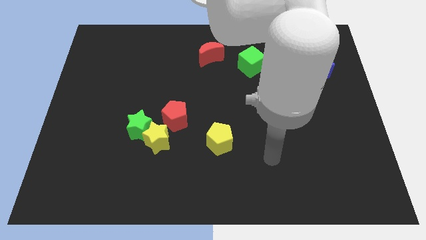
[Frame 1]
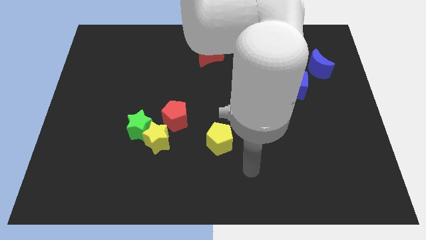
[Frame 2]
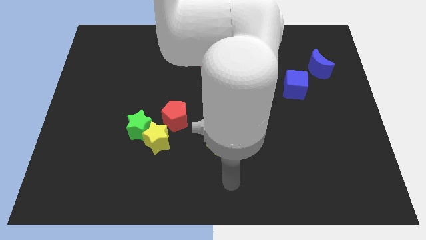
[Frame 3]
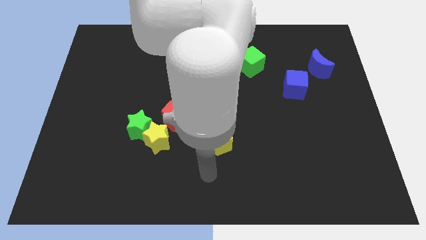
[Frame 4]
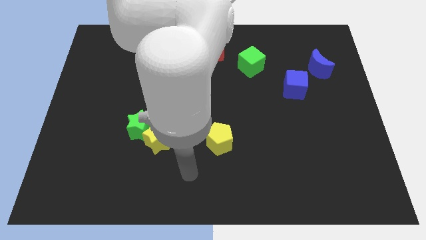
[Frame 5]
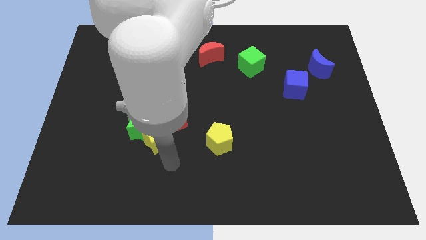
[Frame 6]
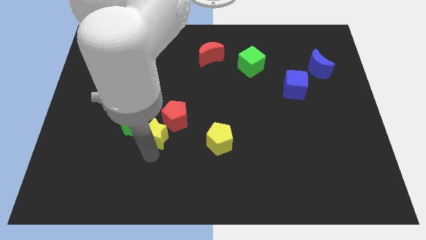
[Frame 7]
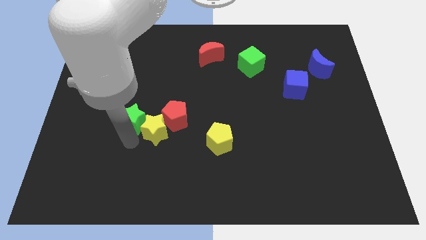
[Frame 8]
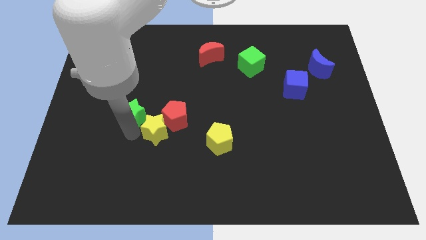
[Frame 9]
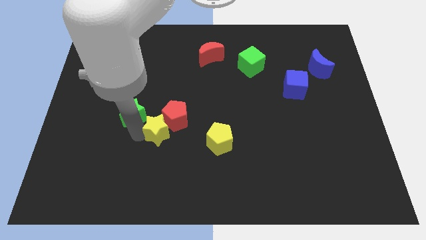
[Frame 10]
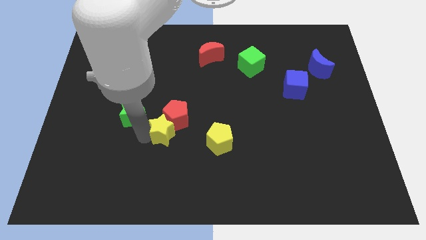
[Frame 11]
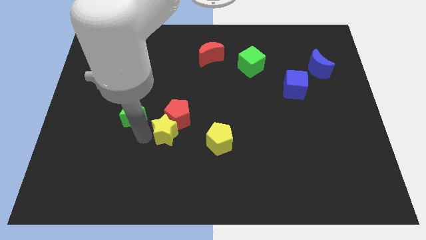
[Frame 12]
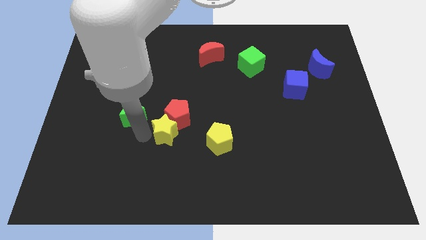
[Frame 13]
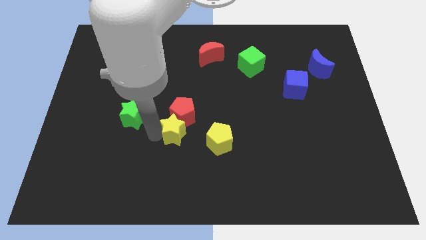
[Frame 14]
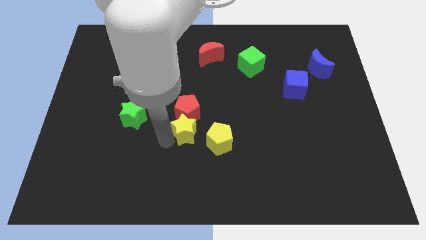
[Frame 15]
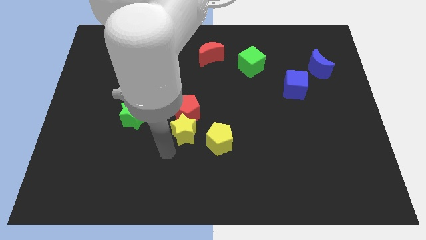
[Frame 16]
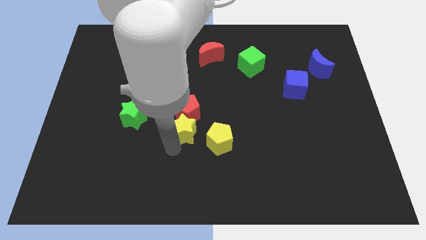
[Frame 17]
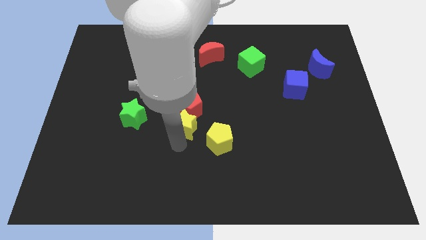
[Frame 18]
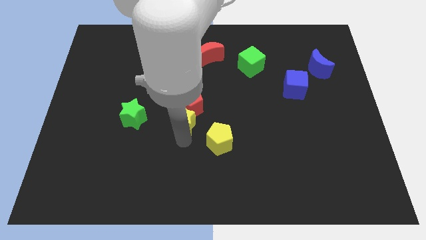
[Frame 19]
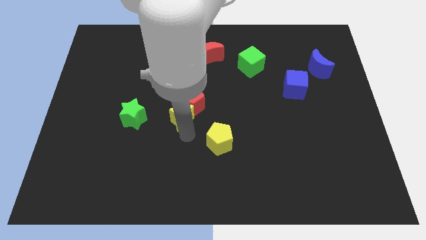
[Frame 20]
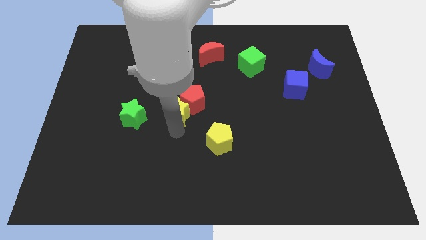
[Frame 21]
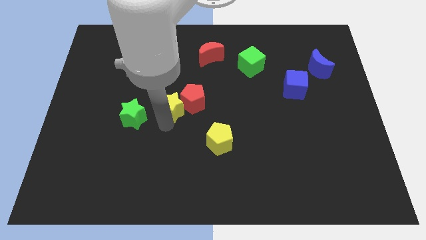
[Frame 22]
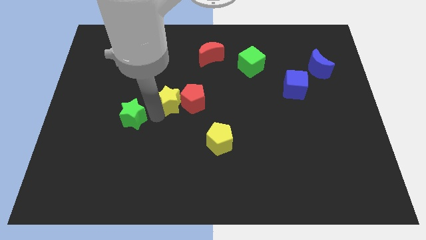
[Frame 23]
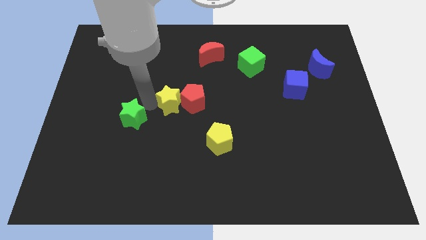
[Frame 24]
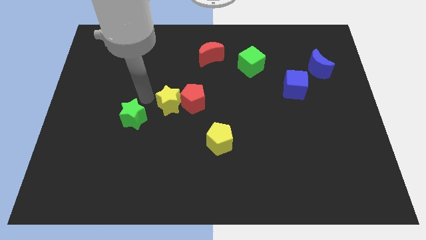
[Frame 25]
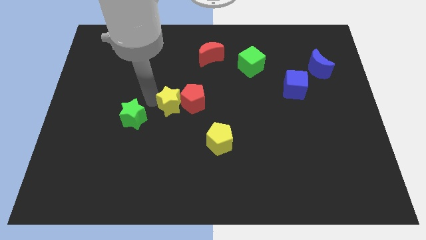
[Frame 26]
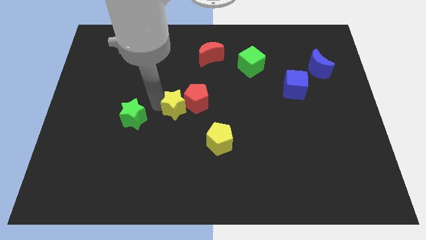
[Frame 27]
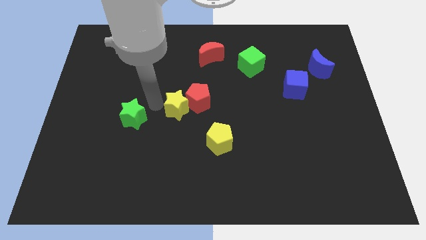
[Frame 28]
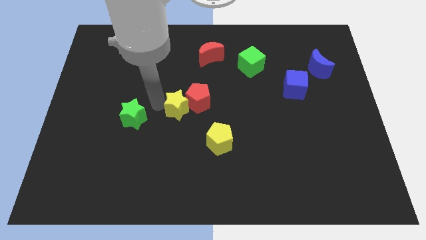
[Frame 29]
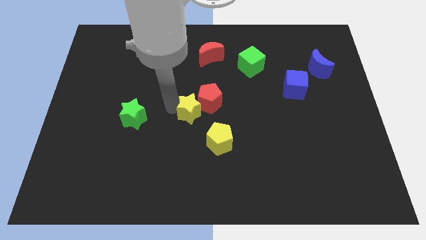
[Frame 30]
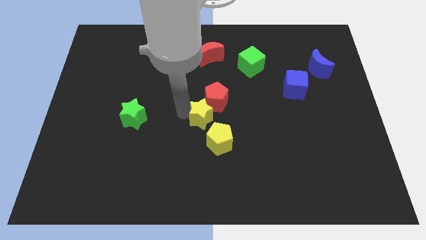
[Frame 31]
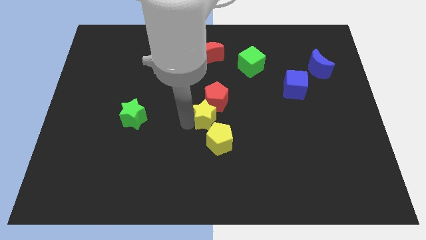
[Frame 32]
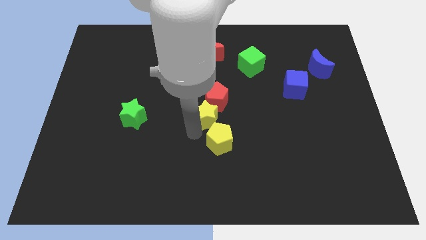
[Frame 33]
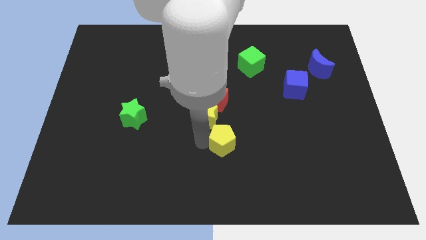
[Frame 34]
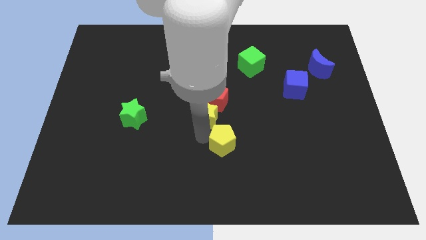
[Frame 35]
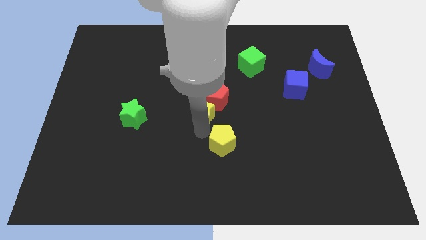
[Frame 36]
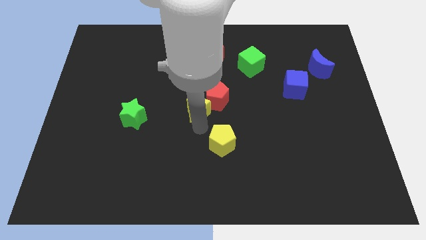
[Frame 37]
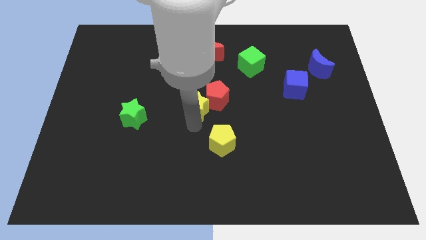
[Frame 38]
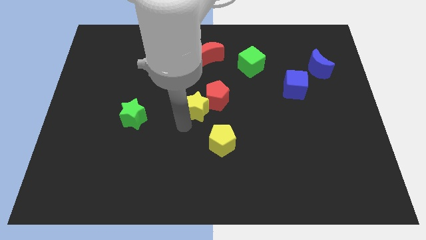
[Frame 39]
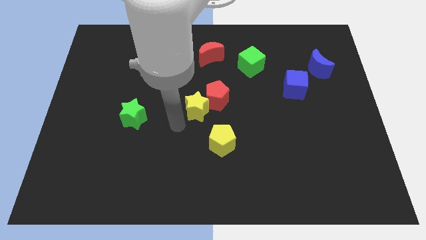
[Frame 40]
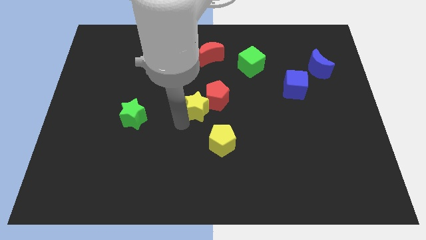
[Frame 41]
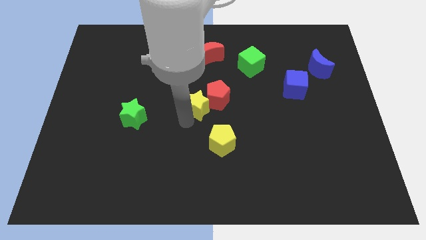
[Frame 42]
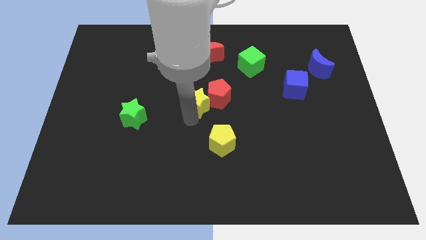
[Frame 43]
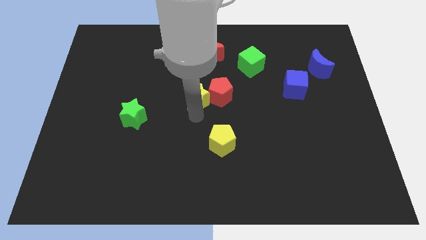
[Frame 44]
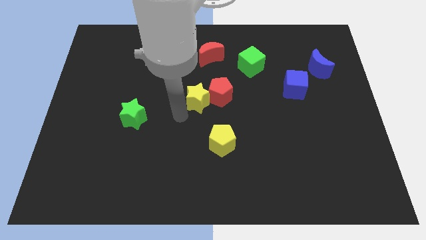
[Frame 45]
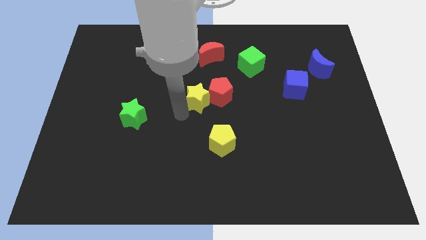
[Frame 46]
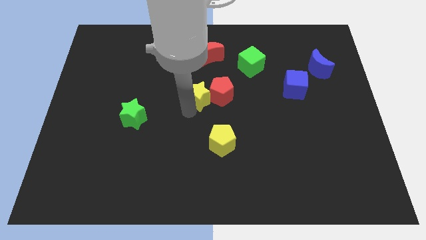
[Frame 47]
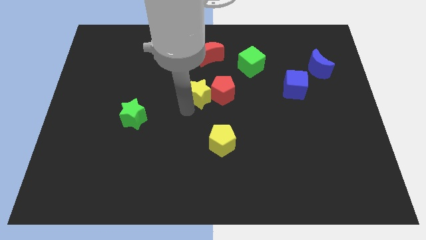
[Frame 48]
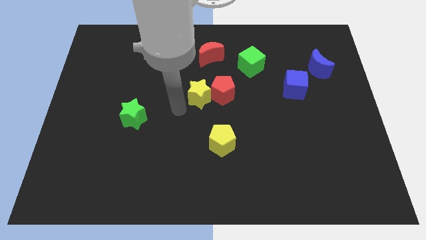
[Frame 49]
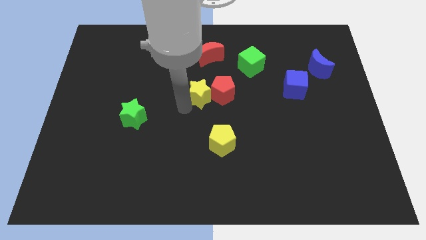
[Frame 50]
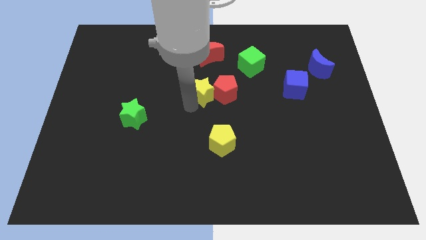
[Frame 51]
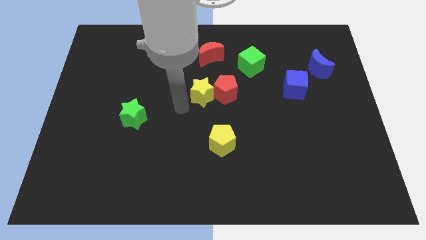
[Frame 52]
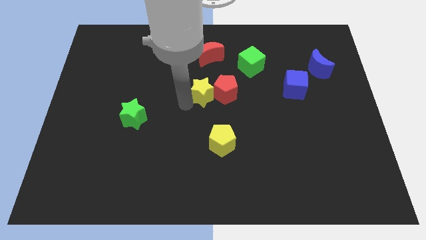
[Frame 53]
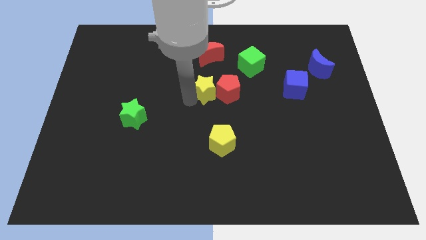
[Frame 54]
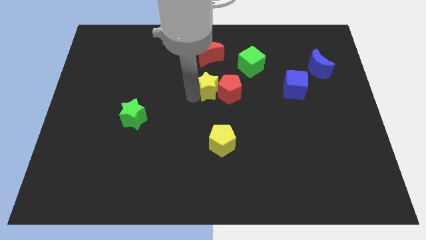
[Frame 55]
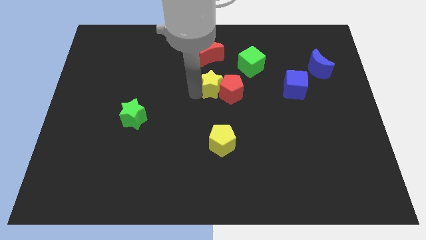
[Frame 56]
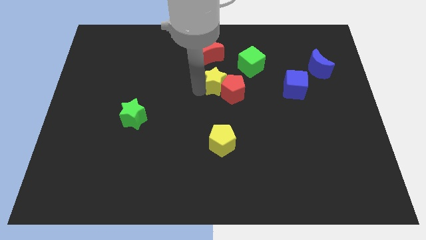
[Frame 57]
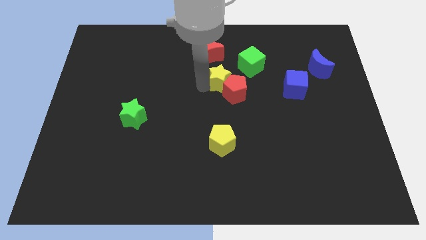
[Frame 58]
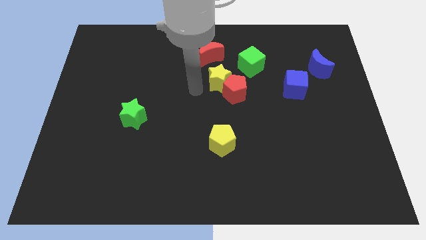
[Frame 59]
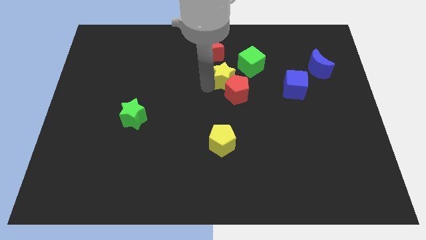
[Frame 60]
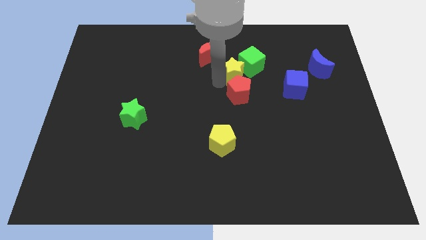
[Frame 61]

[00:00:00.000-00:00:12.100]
slide the yellow star to the green cube

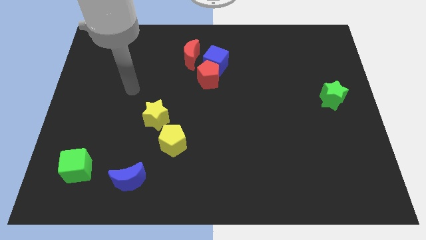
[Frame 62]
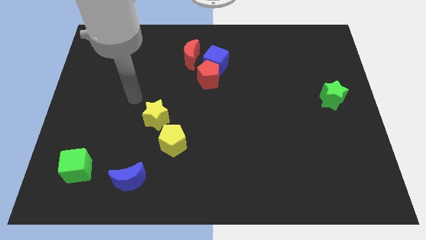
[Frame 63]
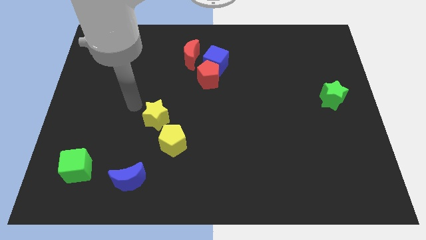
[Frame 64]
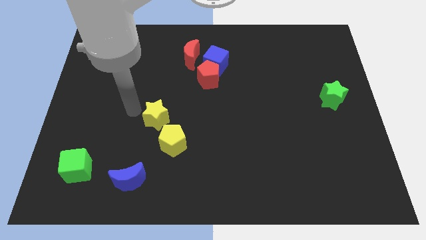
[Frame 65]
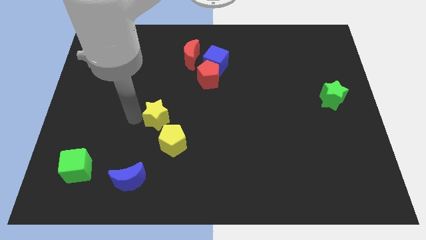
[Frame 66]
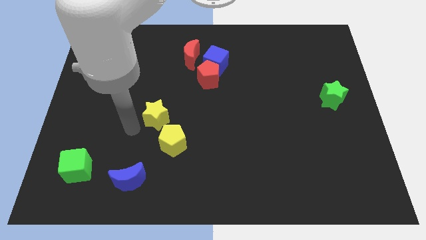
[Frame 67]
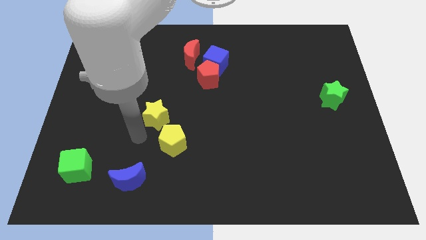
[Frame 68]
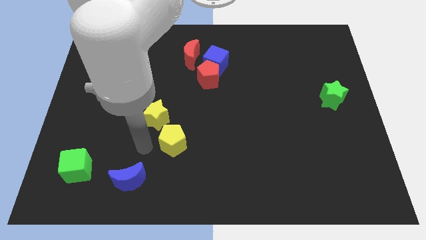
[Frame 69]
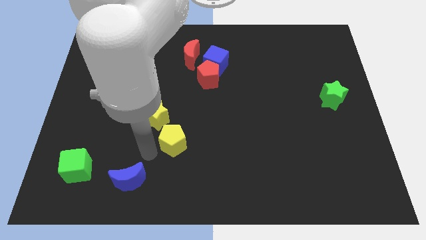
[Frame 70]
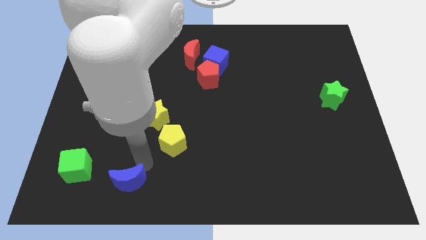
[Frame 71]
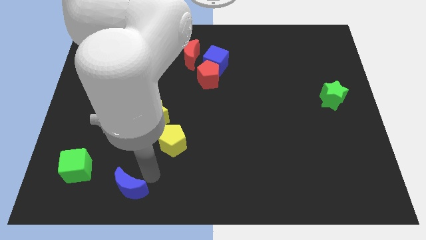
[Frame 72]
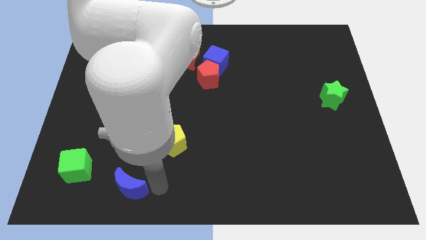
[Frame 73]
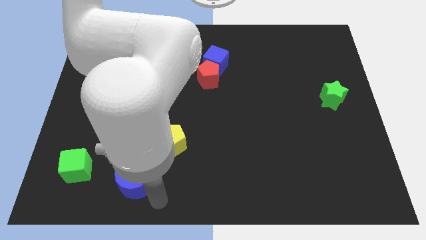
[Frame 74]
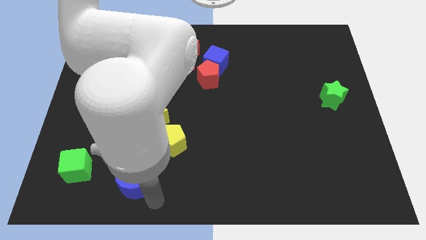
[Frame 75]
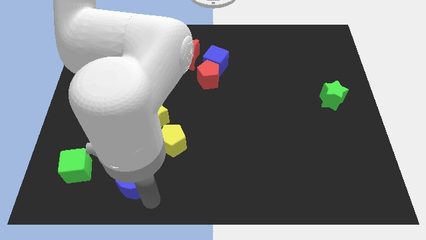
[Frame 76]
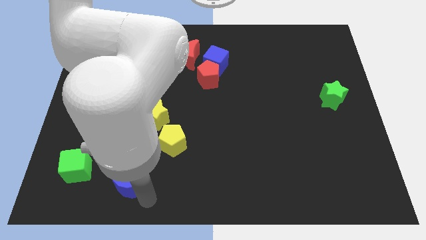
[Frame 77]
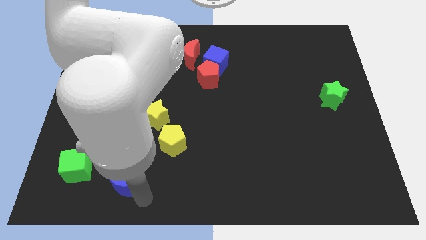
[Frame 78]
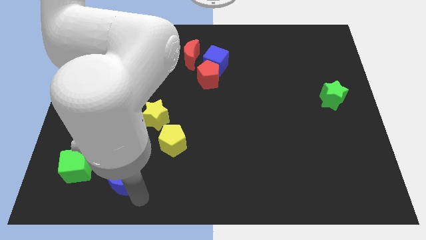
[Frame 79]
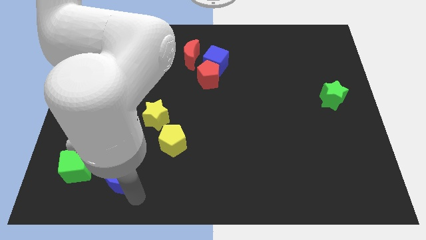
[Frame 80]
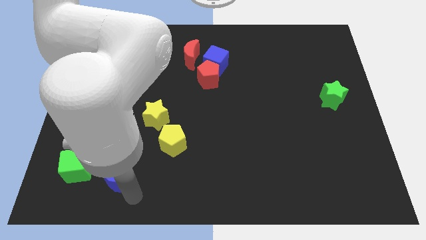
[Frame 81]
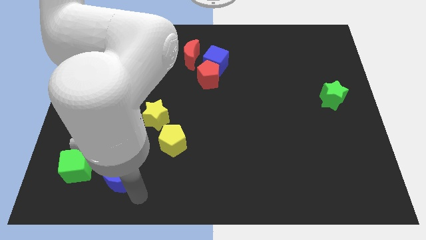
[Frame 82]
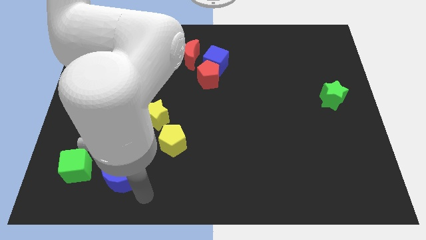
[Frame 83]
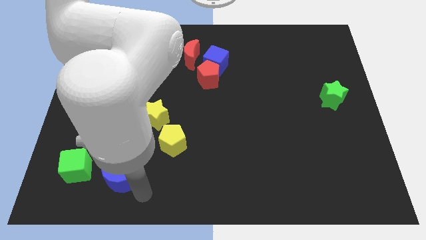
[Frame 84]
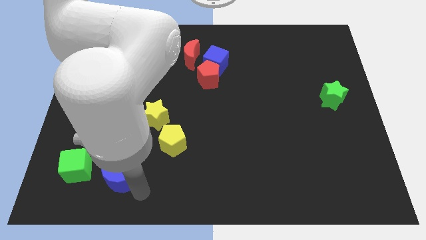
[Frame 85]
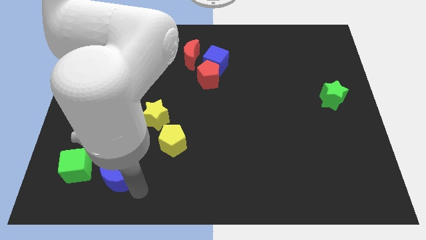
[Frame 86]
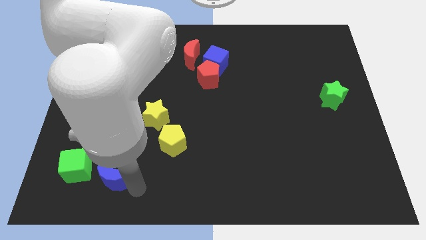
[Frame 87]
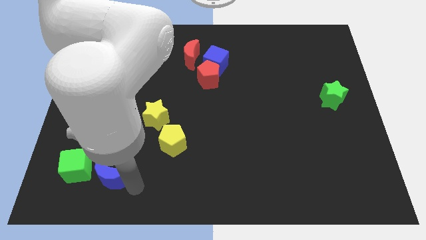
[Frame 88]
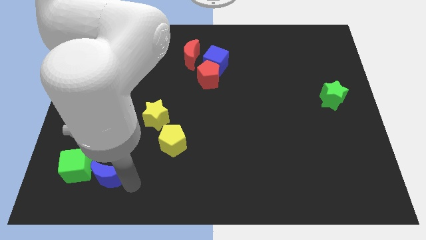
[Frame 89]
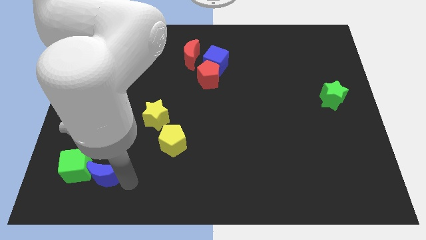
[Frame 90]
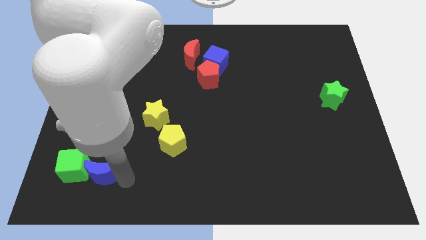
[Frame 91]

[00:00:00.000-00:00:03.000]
move the blue moon next to the green cube
